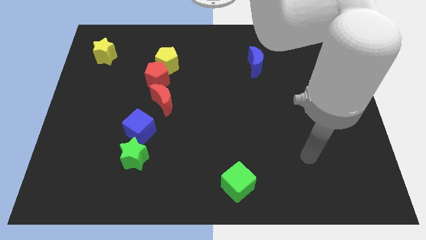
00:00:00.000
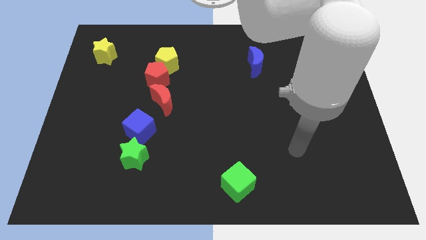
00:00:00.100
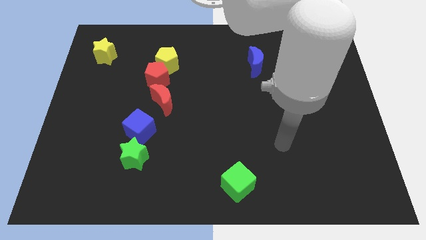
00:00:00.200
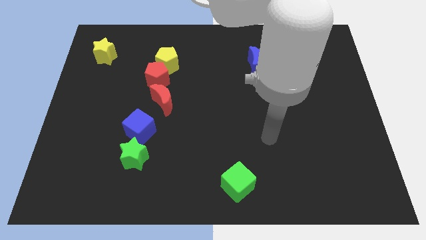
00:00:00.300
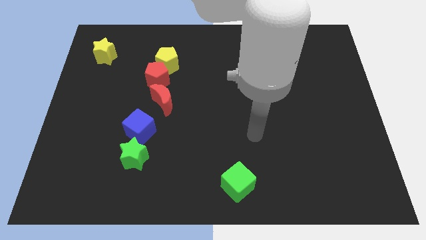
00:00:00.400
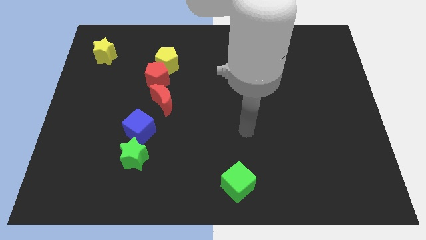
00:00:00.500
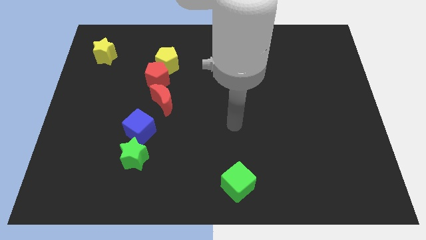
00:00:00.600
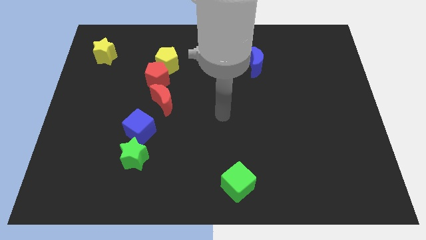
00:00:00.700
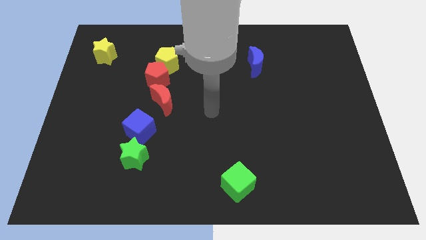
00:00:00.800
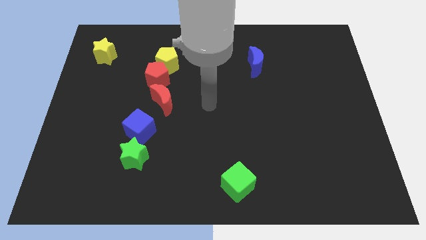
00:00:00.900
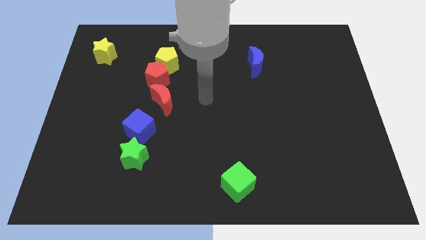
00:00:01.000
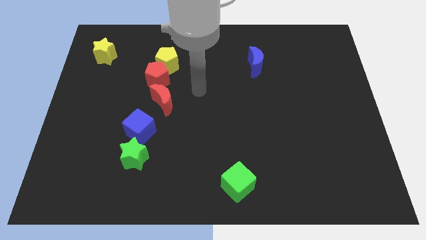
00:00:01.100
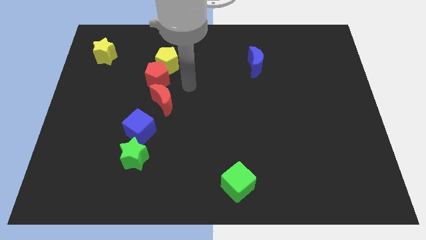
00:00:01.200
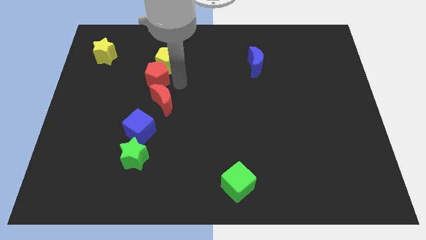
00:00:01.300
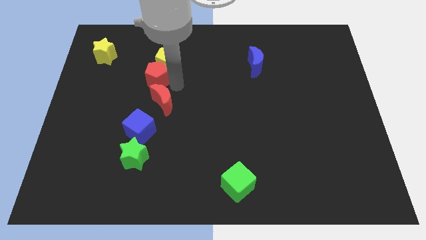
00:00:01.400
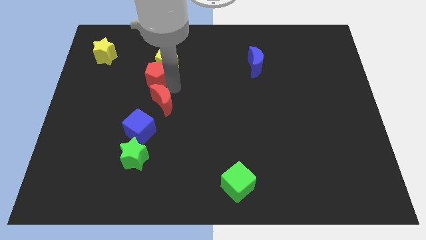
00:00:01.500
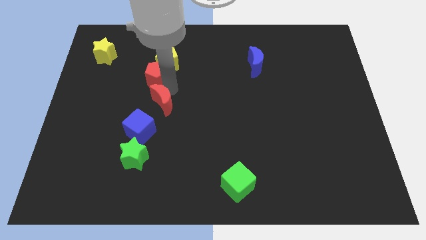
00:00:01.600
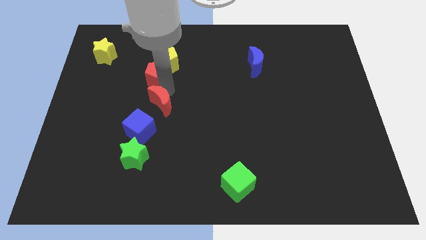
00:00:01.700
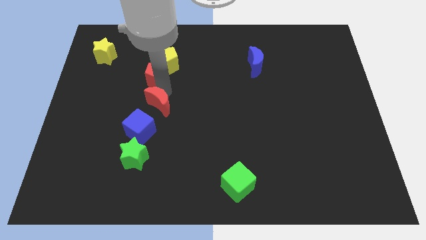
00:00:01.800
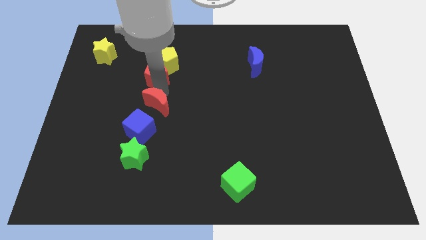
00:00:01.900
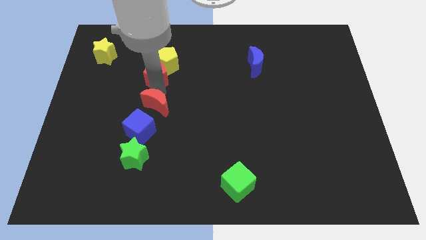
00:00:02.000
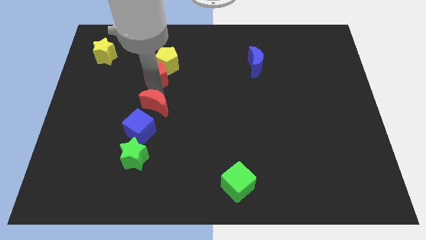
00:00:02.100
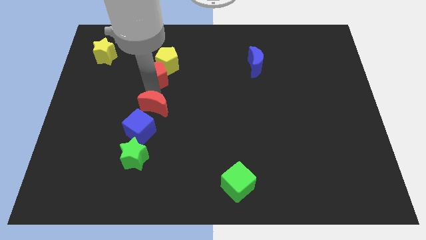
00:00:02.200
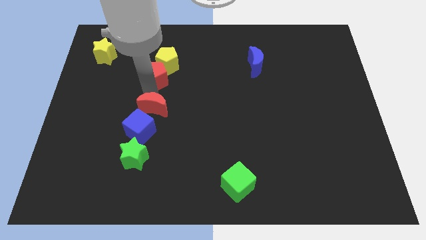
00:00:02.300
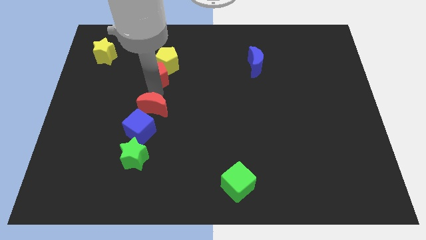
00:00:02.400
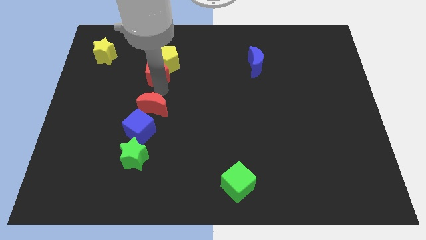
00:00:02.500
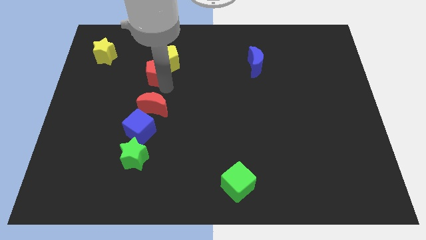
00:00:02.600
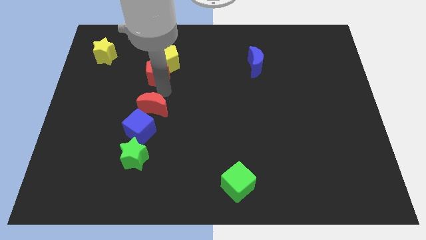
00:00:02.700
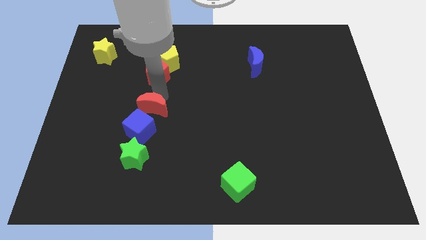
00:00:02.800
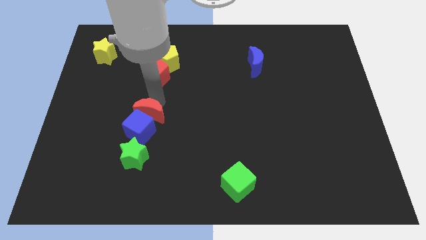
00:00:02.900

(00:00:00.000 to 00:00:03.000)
move the red moon towards the blue cube

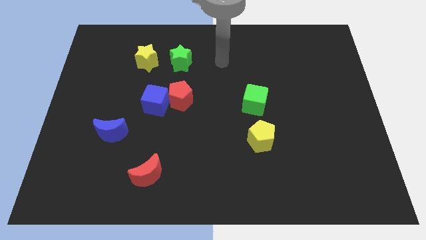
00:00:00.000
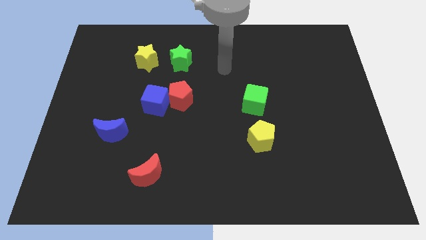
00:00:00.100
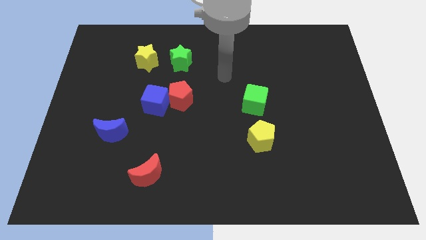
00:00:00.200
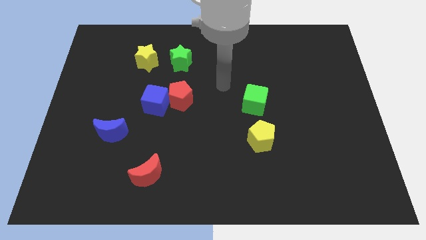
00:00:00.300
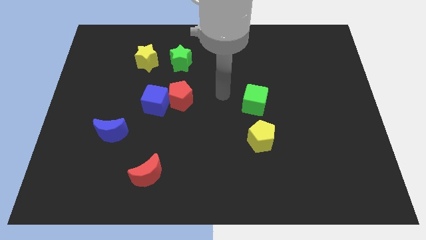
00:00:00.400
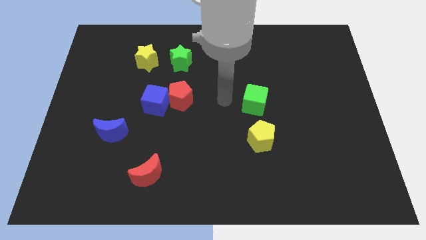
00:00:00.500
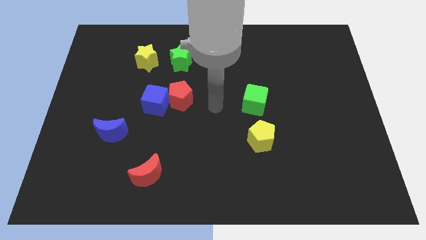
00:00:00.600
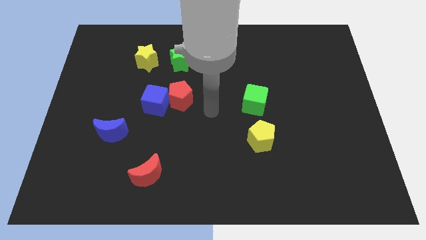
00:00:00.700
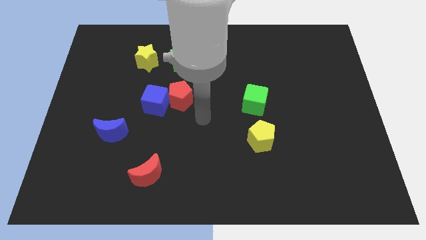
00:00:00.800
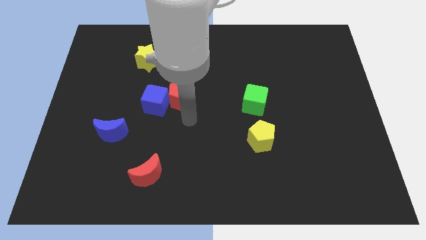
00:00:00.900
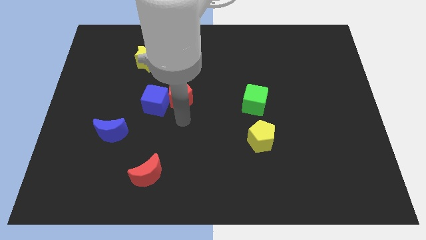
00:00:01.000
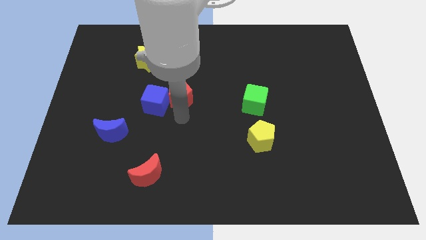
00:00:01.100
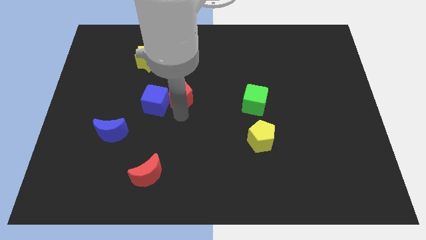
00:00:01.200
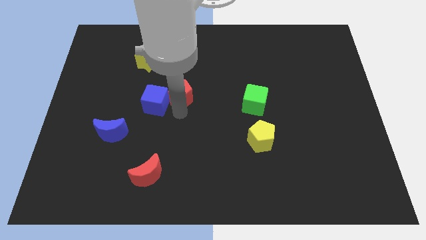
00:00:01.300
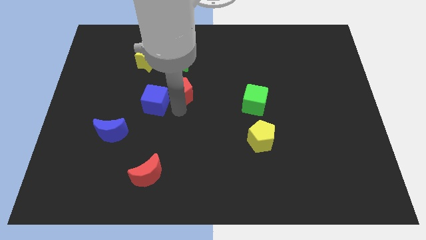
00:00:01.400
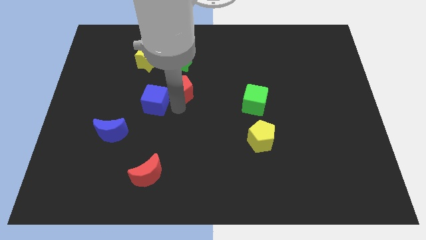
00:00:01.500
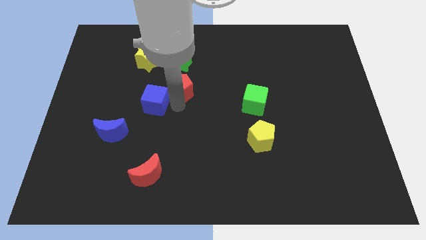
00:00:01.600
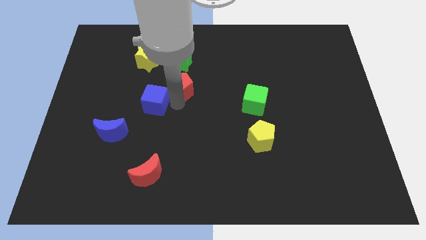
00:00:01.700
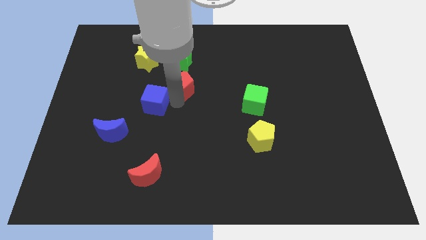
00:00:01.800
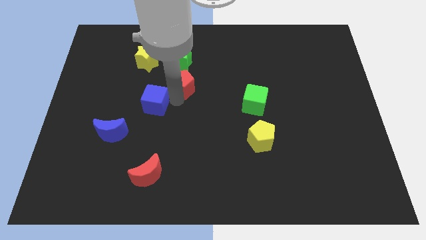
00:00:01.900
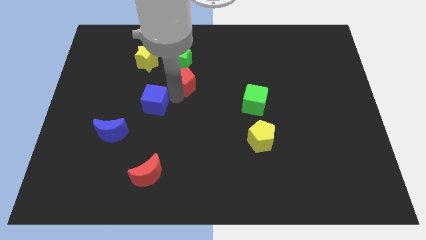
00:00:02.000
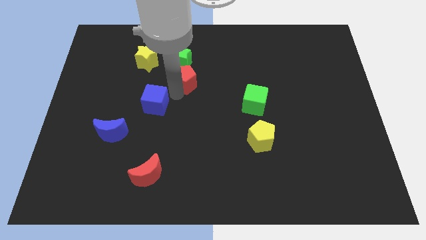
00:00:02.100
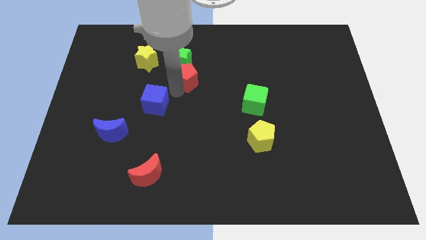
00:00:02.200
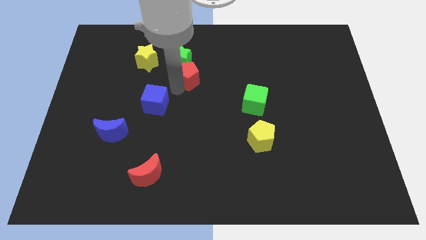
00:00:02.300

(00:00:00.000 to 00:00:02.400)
move the red pentagon close to the green star

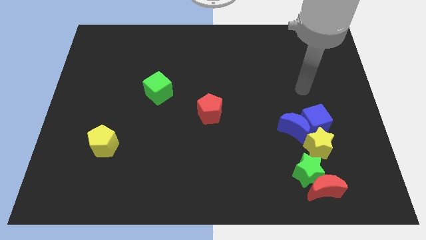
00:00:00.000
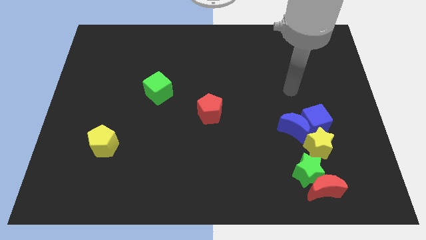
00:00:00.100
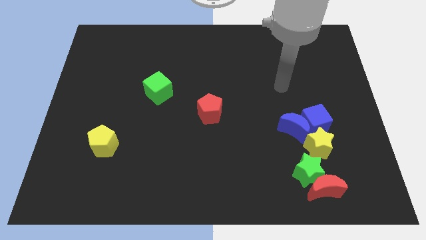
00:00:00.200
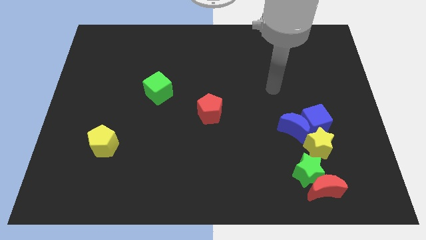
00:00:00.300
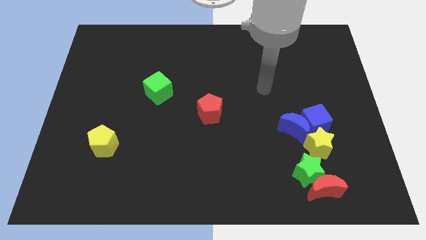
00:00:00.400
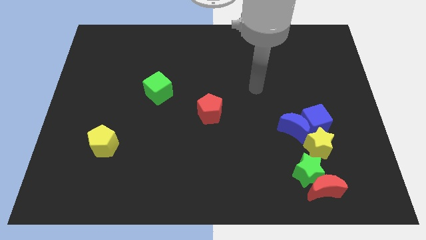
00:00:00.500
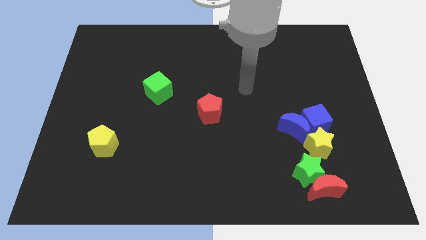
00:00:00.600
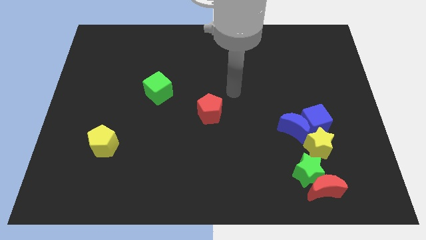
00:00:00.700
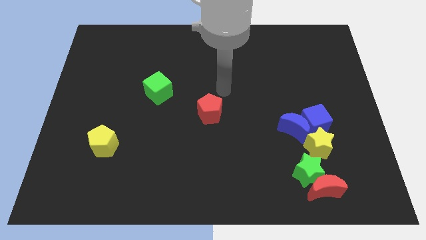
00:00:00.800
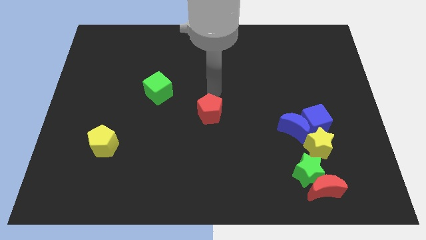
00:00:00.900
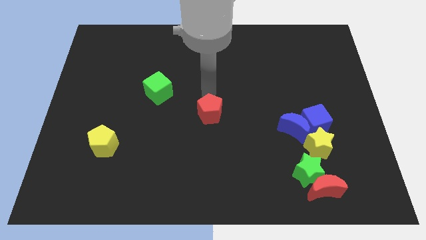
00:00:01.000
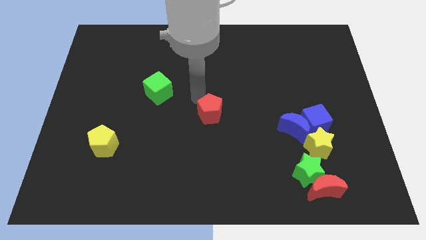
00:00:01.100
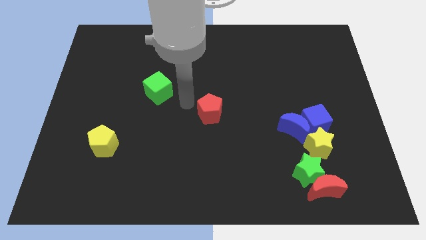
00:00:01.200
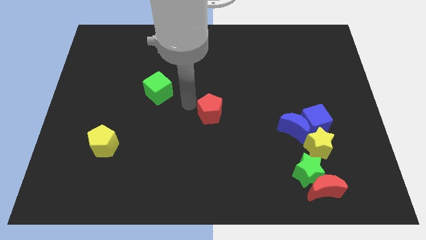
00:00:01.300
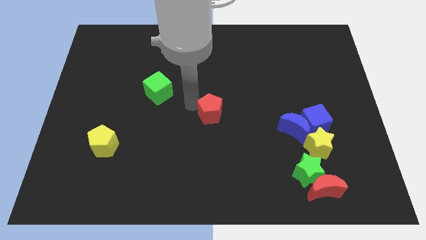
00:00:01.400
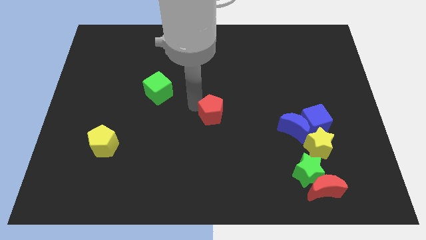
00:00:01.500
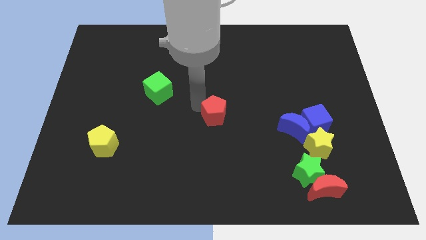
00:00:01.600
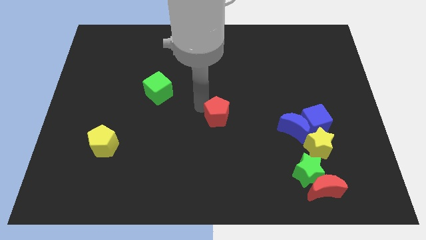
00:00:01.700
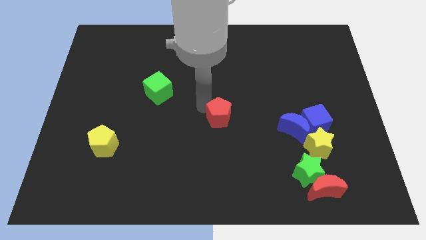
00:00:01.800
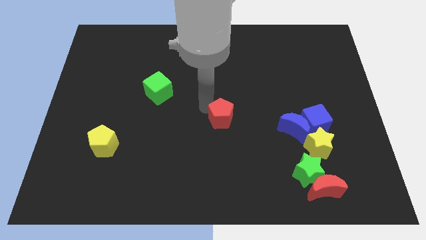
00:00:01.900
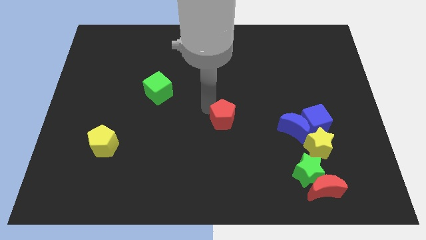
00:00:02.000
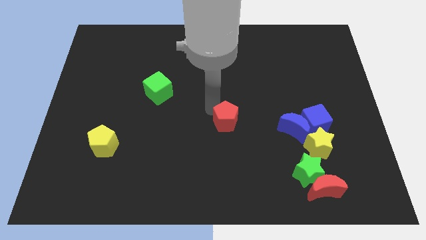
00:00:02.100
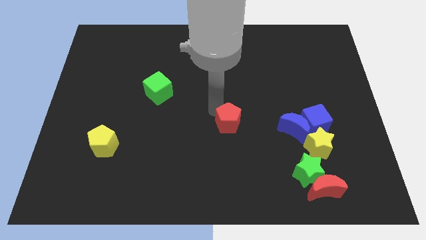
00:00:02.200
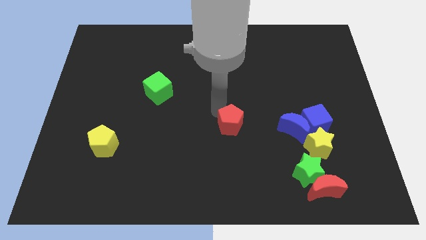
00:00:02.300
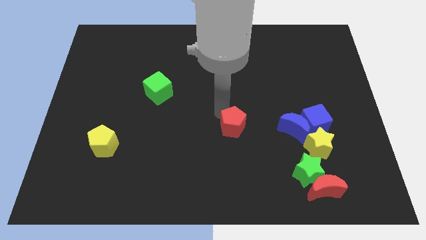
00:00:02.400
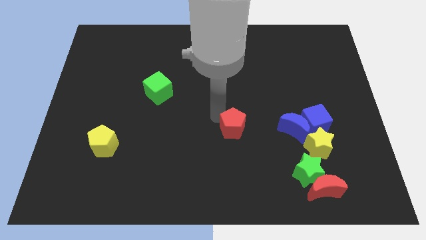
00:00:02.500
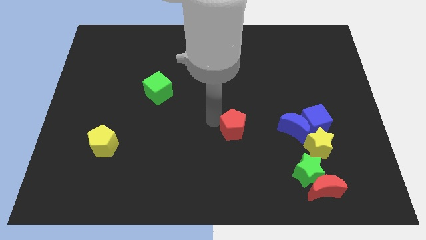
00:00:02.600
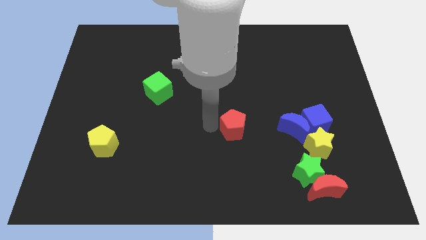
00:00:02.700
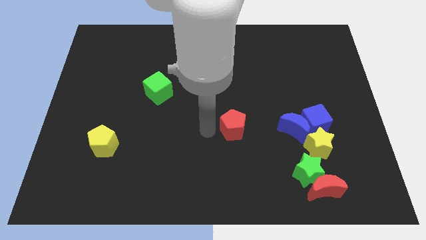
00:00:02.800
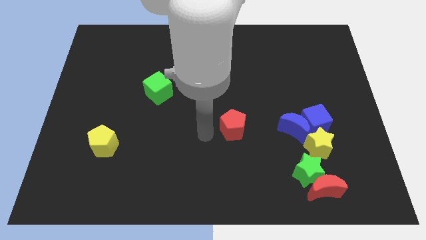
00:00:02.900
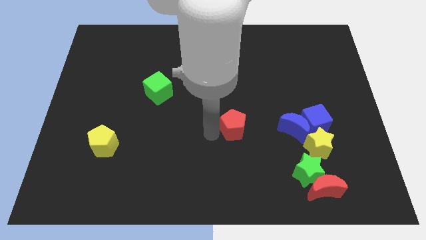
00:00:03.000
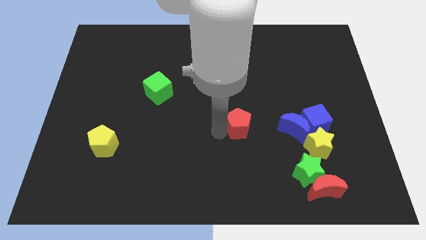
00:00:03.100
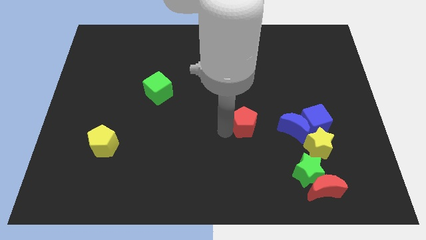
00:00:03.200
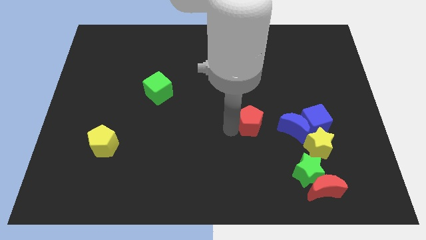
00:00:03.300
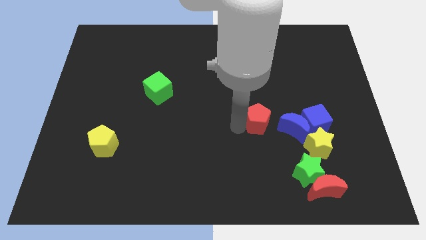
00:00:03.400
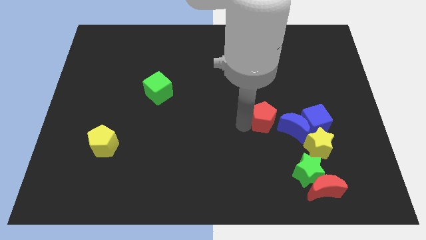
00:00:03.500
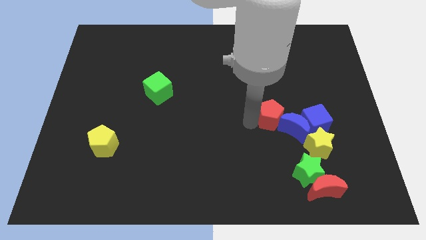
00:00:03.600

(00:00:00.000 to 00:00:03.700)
move the red pentagon close to the blue moon
